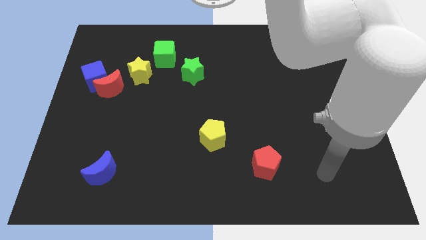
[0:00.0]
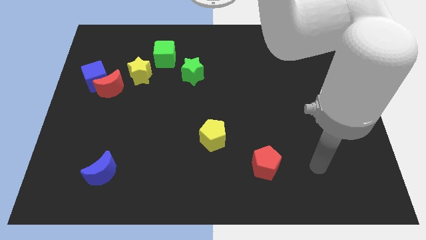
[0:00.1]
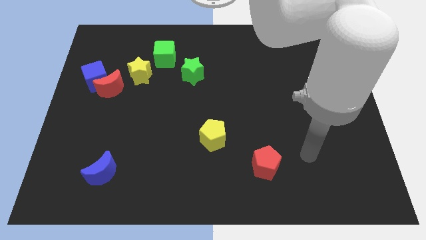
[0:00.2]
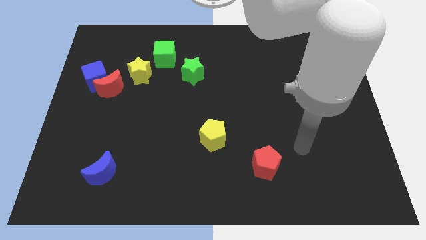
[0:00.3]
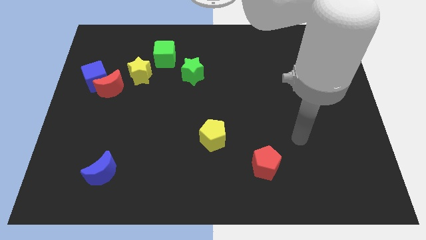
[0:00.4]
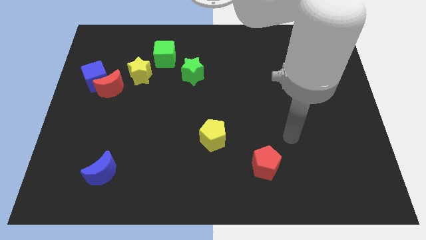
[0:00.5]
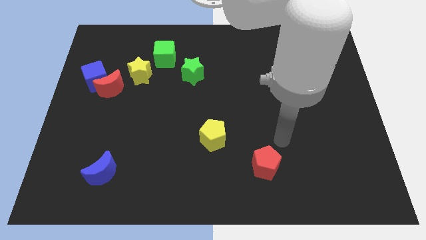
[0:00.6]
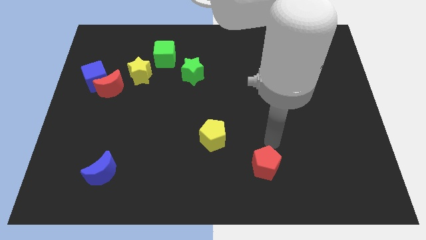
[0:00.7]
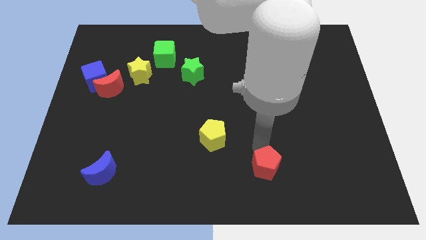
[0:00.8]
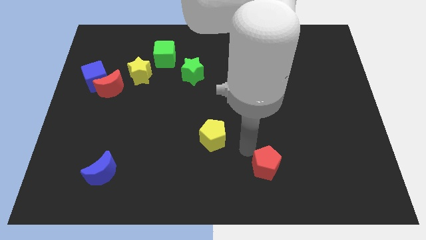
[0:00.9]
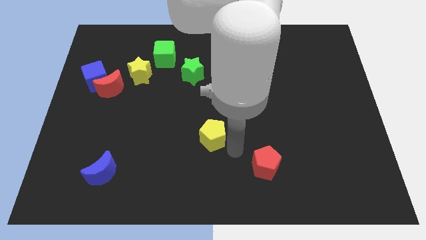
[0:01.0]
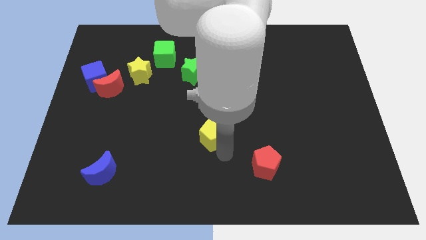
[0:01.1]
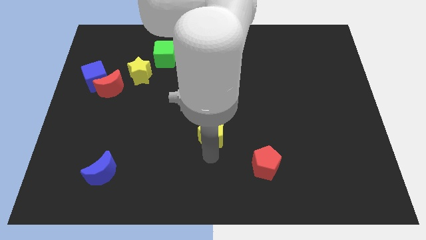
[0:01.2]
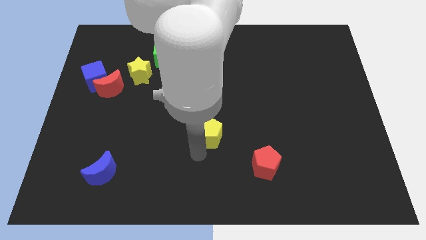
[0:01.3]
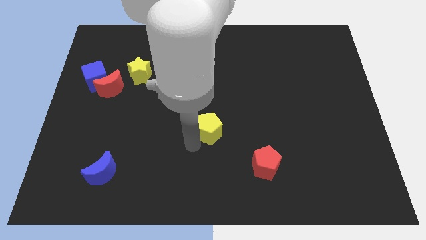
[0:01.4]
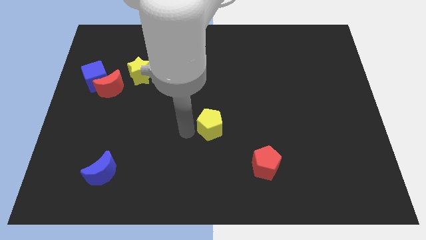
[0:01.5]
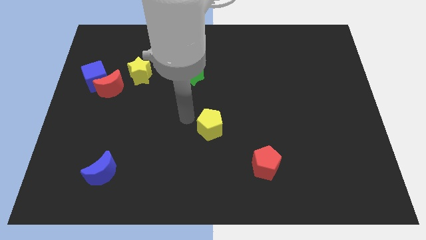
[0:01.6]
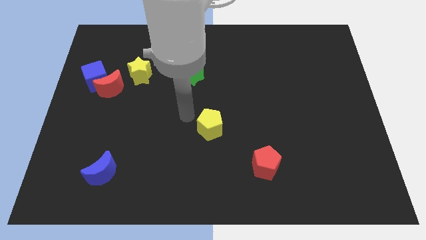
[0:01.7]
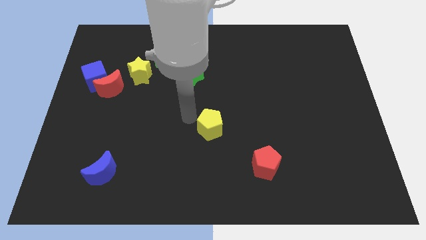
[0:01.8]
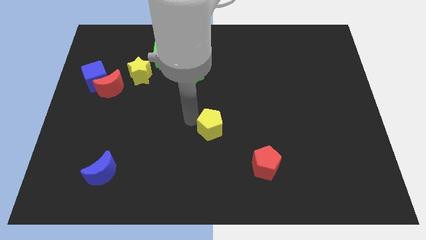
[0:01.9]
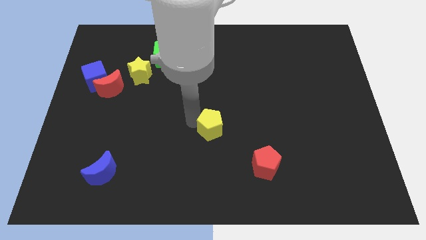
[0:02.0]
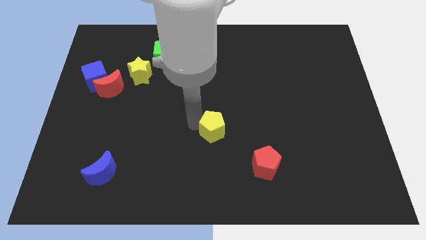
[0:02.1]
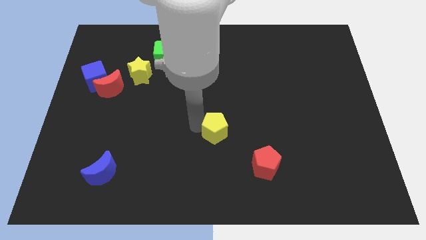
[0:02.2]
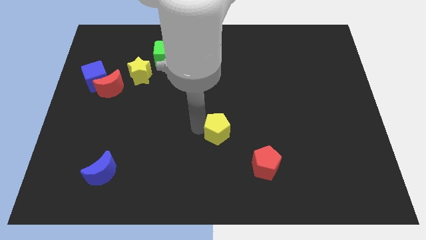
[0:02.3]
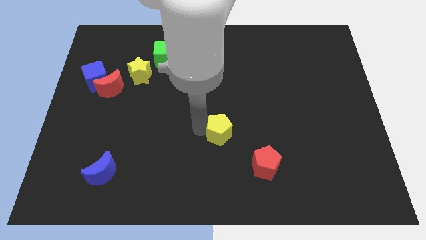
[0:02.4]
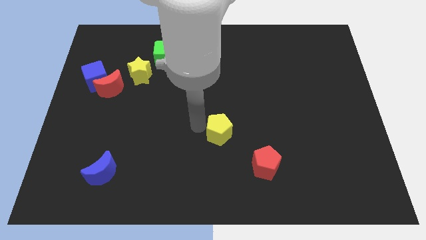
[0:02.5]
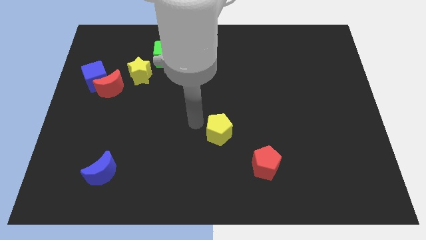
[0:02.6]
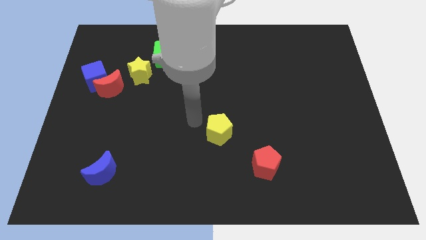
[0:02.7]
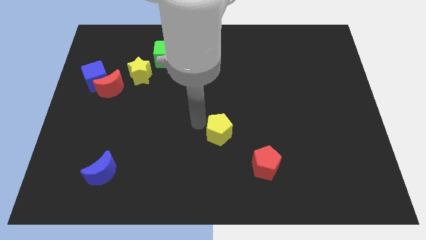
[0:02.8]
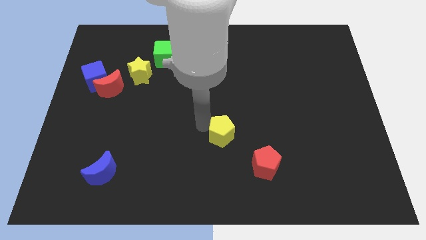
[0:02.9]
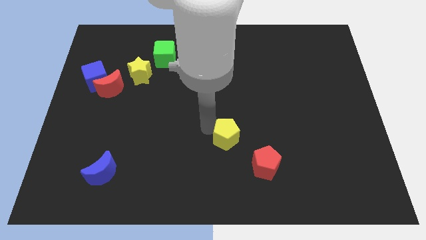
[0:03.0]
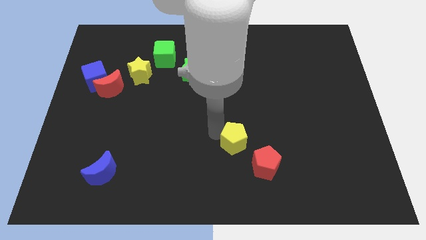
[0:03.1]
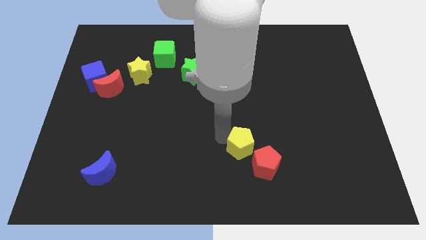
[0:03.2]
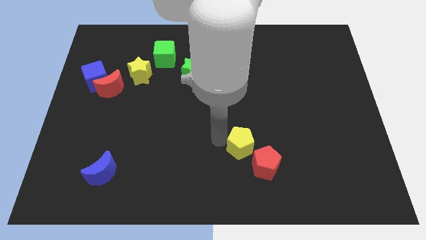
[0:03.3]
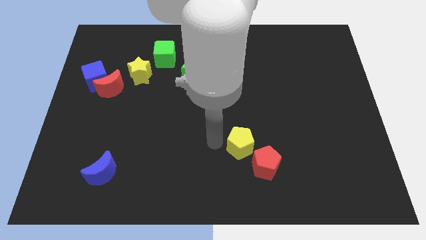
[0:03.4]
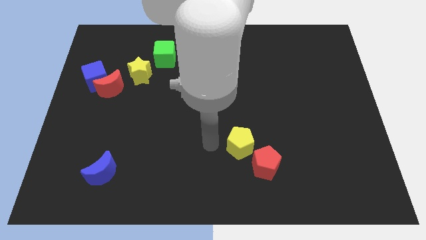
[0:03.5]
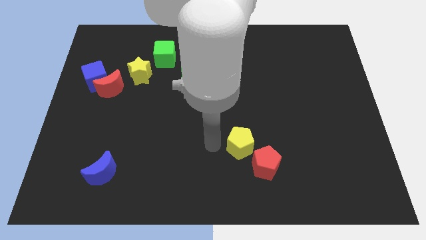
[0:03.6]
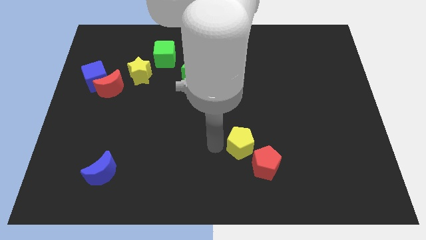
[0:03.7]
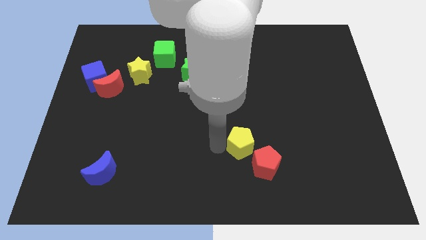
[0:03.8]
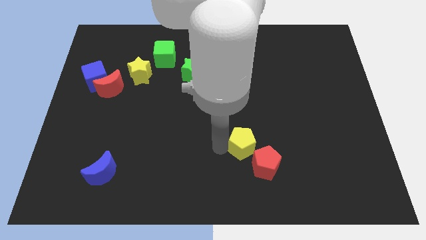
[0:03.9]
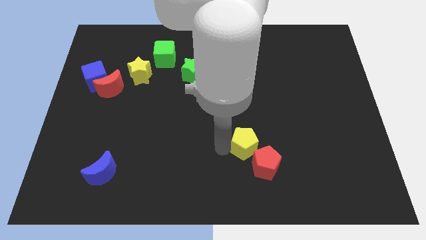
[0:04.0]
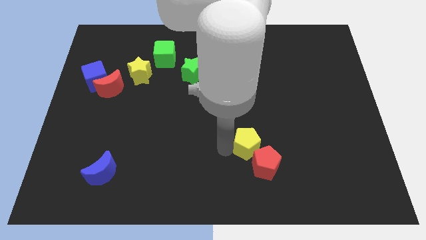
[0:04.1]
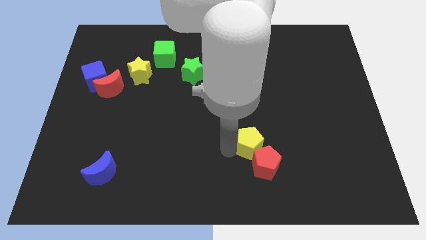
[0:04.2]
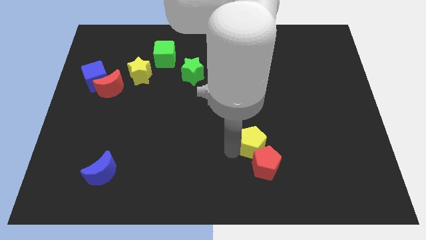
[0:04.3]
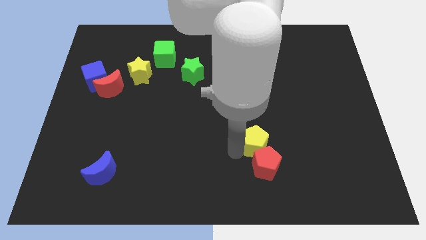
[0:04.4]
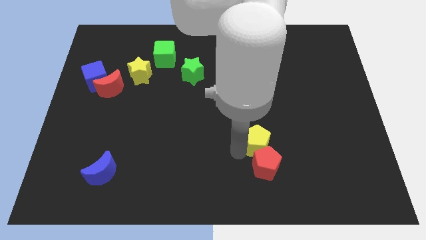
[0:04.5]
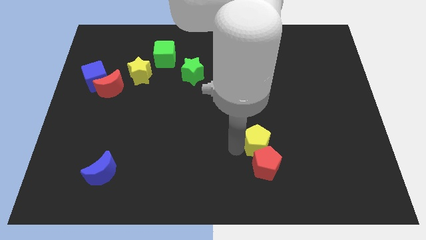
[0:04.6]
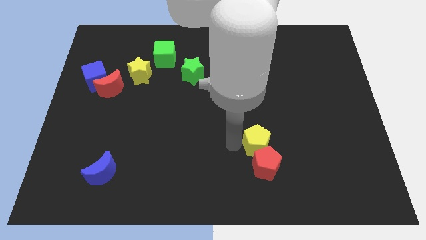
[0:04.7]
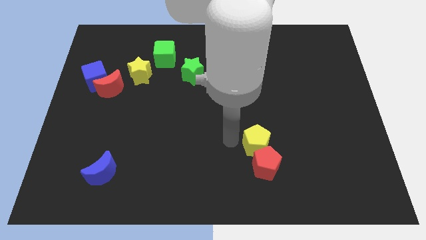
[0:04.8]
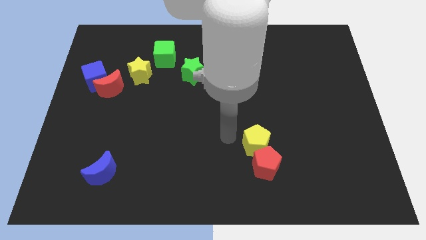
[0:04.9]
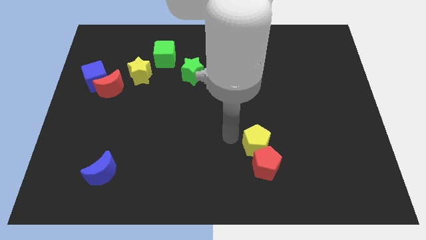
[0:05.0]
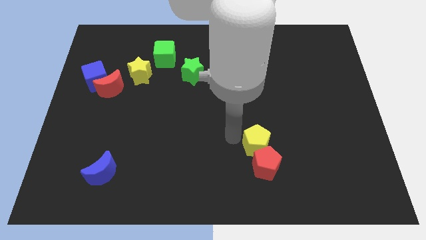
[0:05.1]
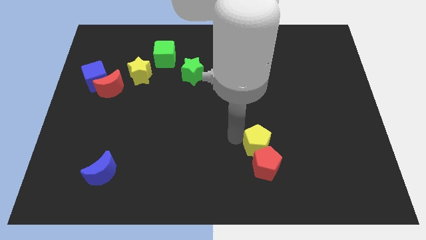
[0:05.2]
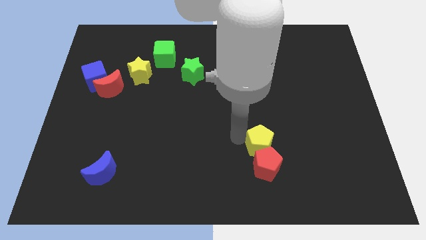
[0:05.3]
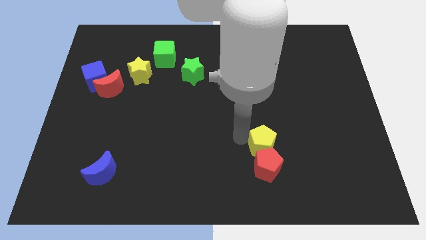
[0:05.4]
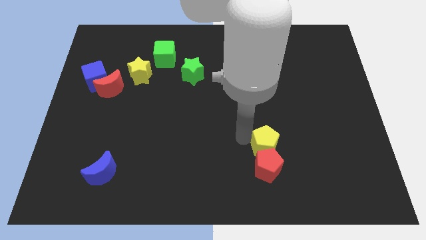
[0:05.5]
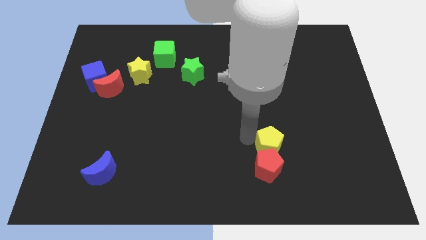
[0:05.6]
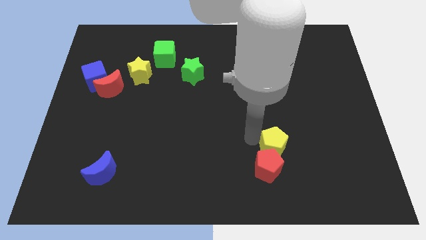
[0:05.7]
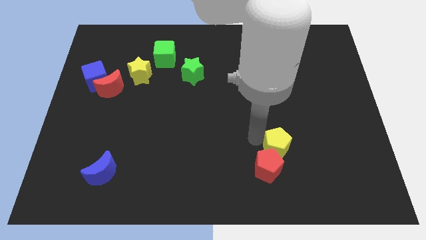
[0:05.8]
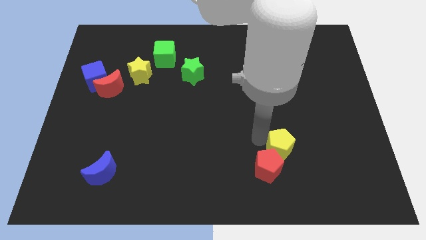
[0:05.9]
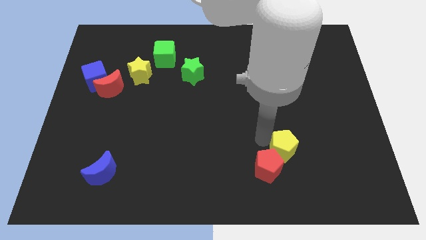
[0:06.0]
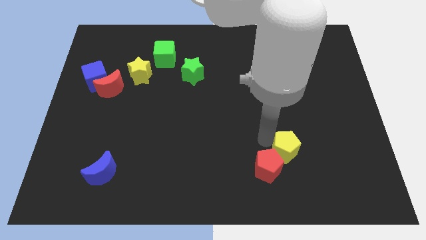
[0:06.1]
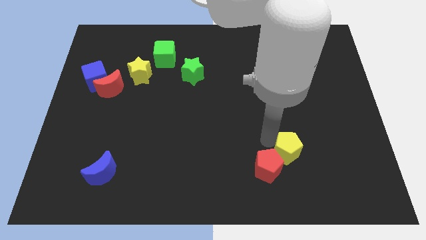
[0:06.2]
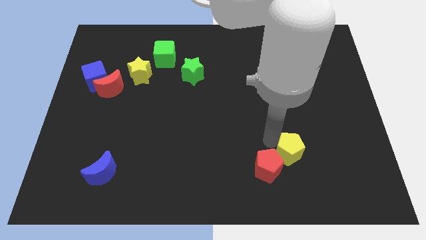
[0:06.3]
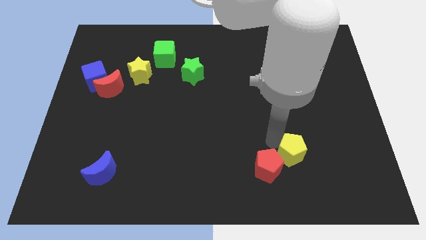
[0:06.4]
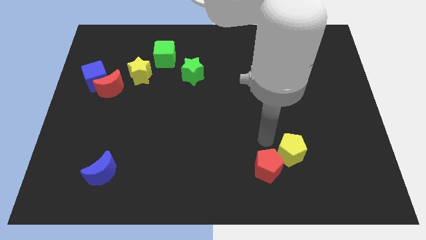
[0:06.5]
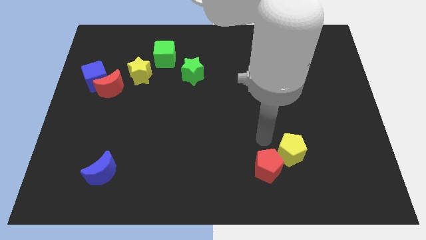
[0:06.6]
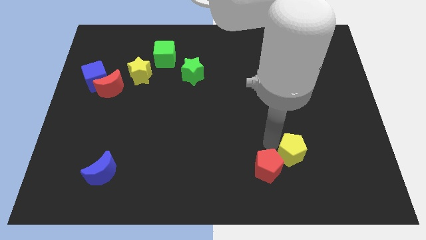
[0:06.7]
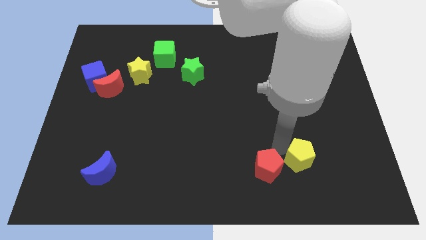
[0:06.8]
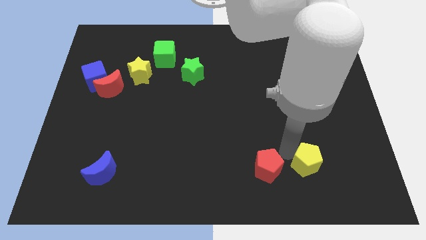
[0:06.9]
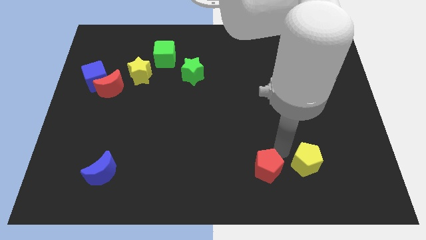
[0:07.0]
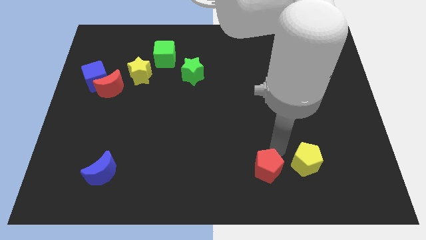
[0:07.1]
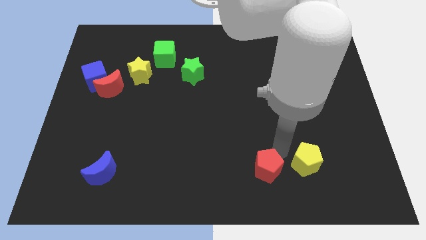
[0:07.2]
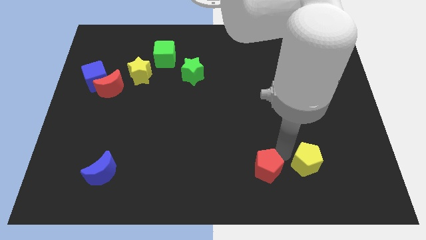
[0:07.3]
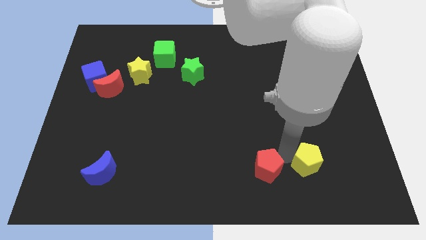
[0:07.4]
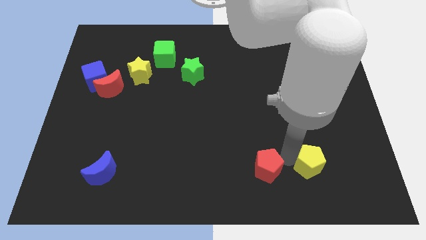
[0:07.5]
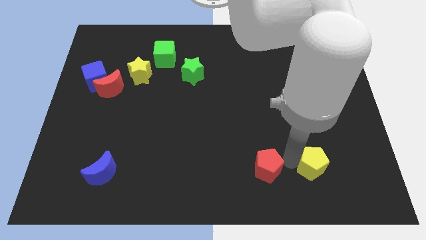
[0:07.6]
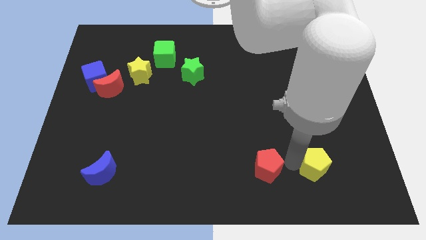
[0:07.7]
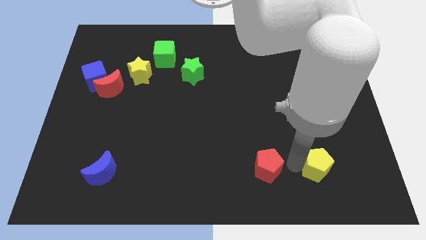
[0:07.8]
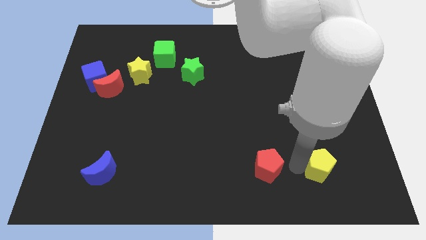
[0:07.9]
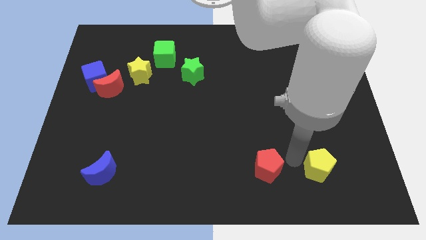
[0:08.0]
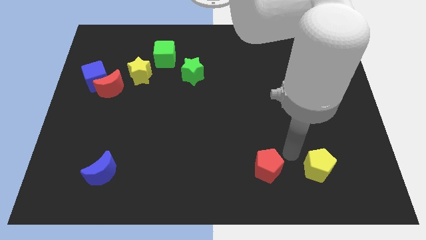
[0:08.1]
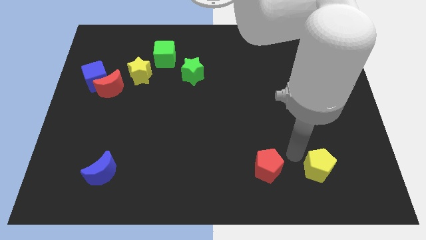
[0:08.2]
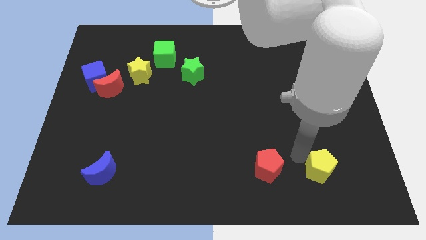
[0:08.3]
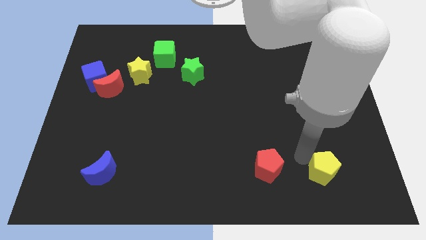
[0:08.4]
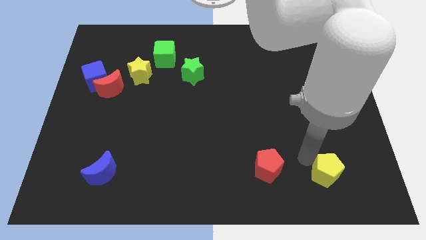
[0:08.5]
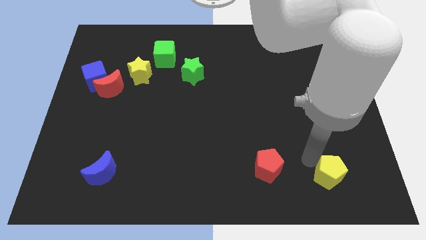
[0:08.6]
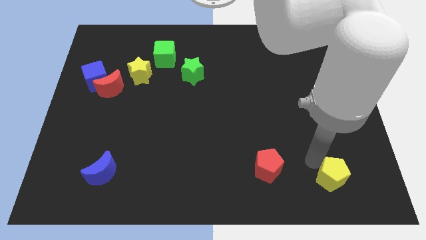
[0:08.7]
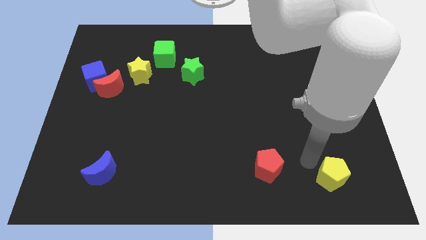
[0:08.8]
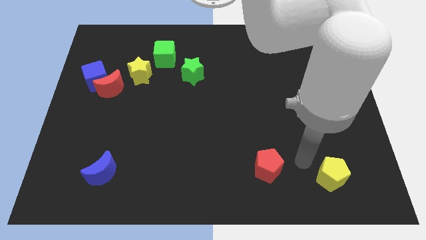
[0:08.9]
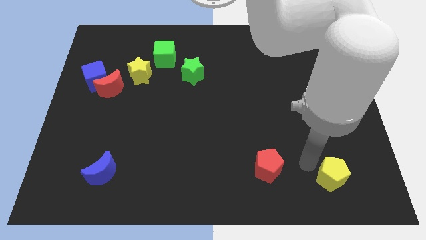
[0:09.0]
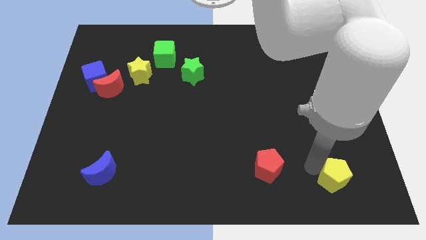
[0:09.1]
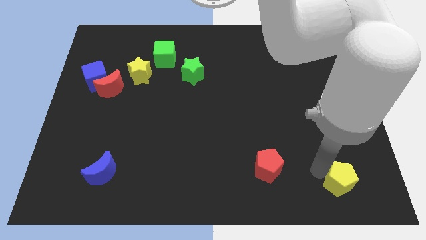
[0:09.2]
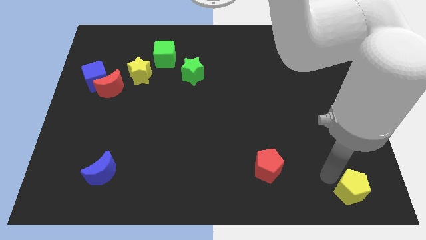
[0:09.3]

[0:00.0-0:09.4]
move the yellow pentagon to the bottom right of the board
